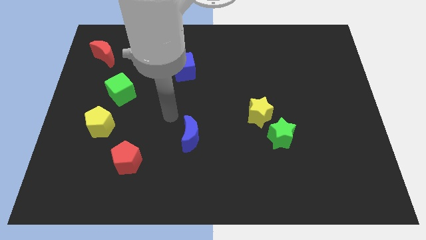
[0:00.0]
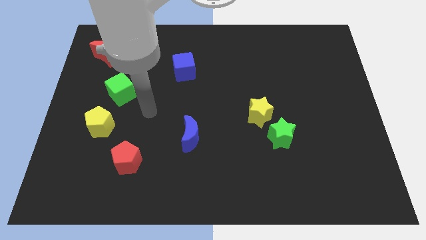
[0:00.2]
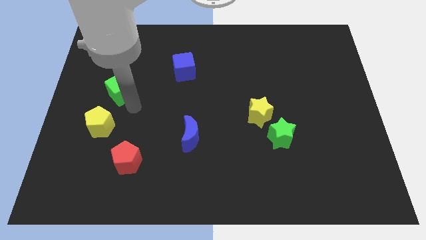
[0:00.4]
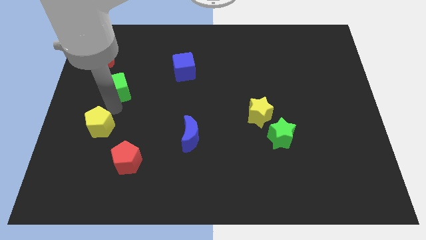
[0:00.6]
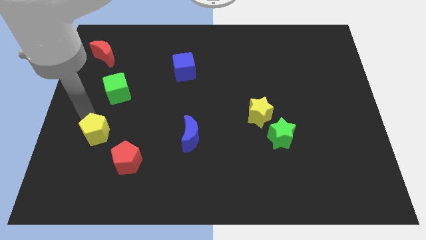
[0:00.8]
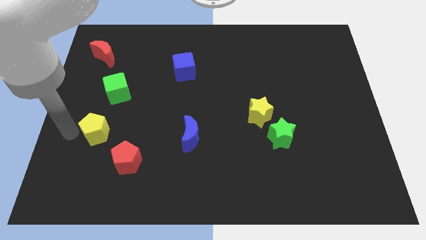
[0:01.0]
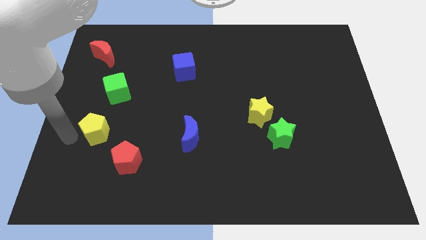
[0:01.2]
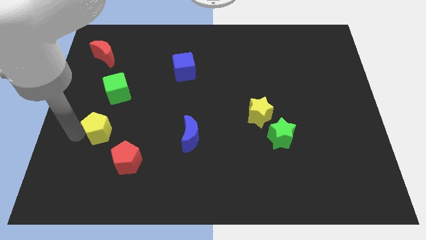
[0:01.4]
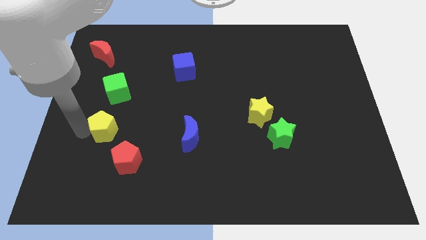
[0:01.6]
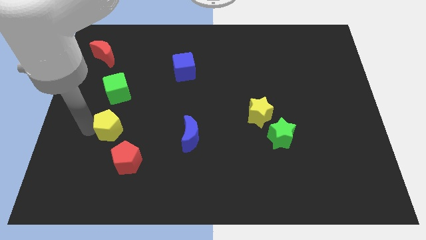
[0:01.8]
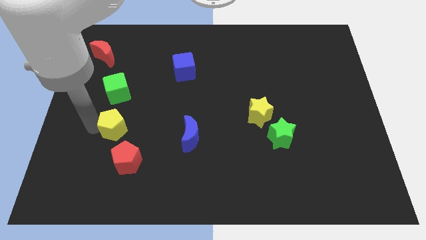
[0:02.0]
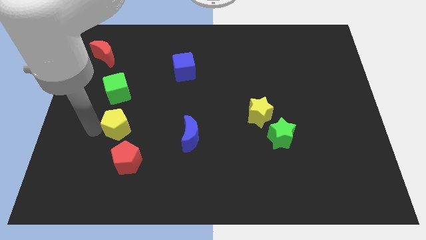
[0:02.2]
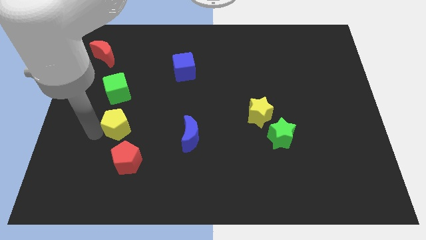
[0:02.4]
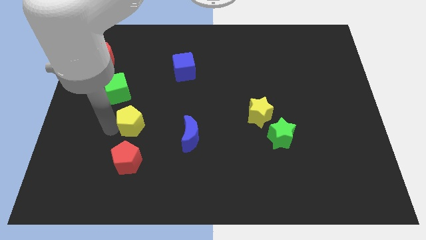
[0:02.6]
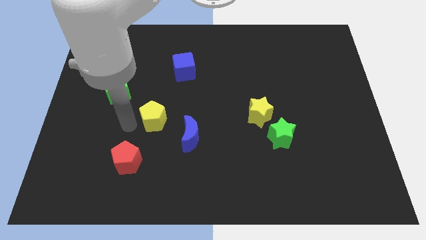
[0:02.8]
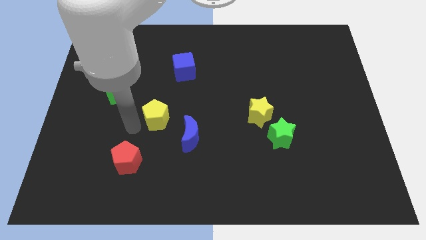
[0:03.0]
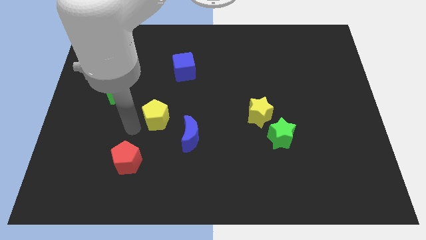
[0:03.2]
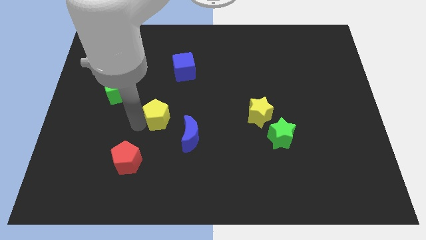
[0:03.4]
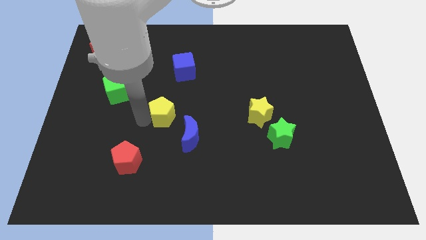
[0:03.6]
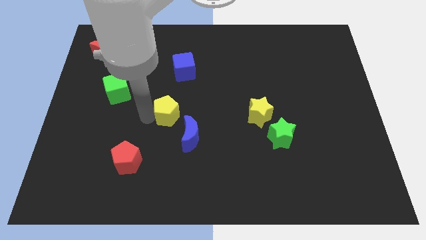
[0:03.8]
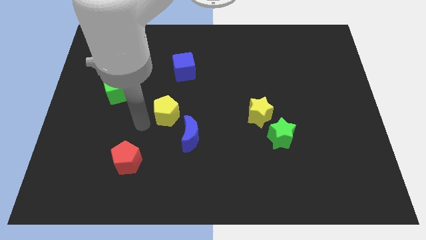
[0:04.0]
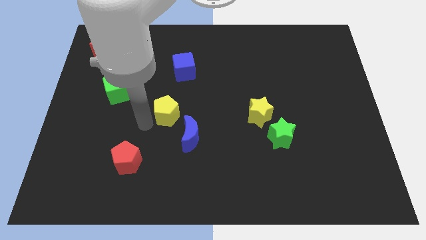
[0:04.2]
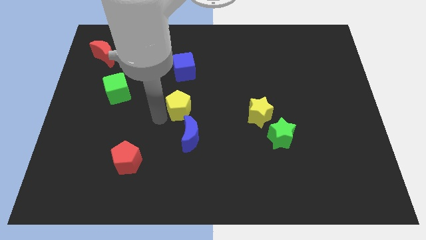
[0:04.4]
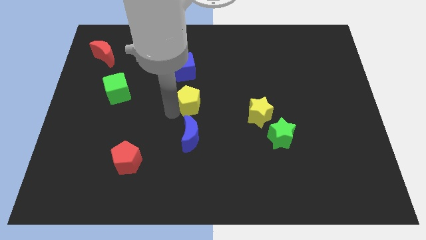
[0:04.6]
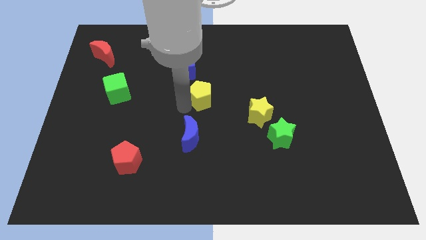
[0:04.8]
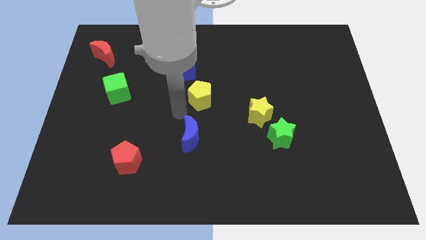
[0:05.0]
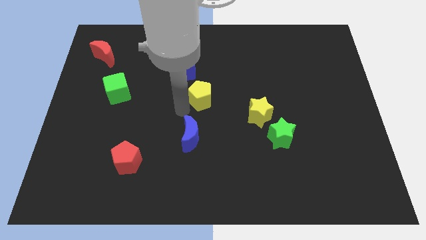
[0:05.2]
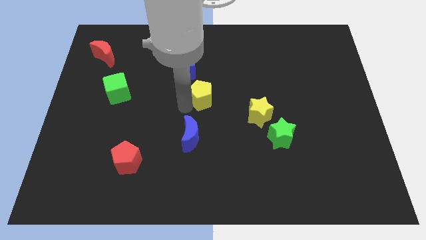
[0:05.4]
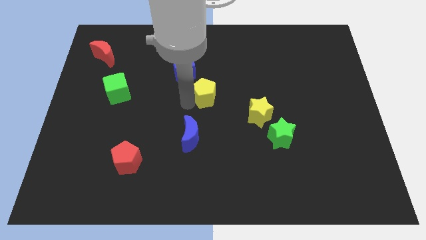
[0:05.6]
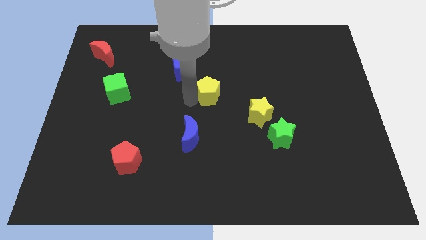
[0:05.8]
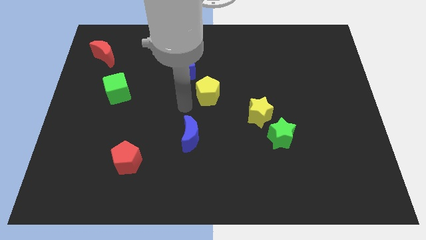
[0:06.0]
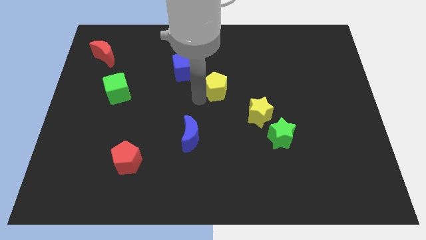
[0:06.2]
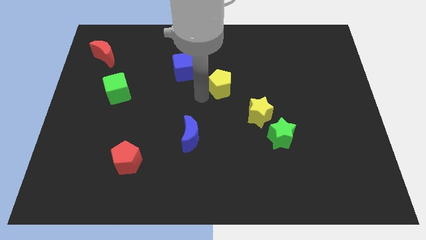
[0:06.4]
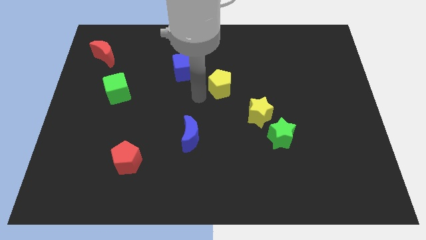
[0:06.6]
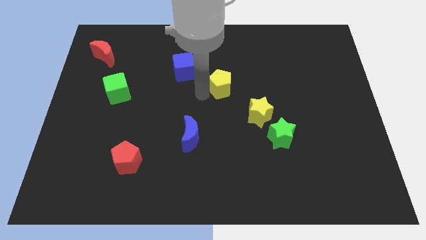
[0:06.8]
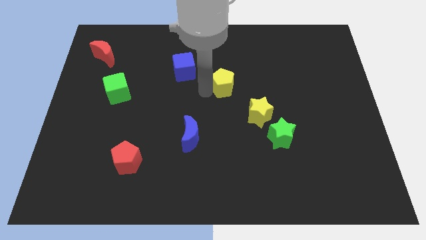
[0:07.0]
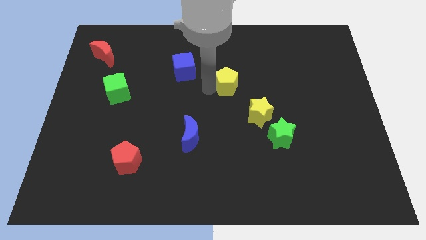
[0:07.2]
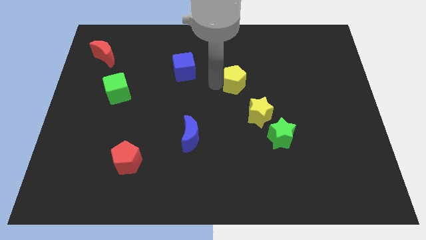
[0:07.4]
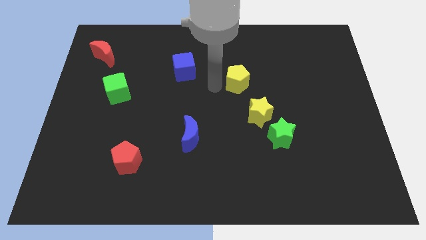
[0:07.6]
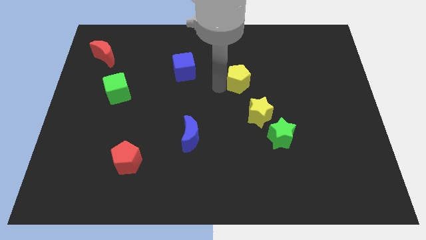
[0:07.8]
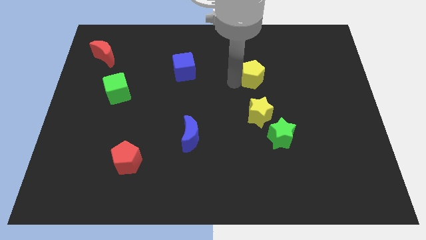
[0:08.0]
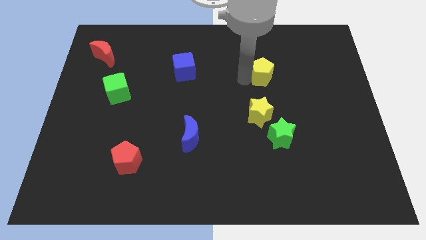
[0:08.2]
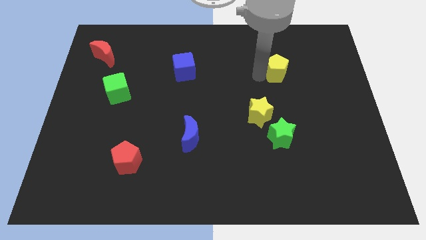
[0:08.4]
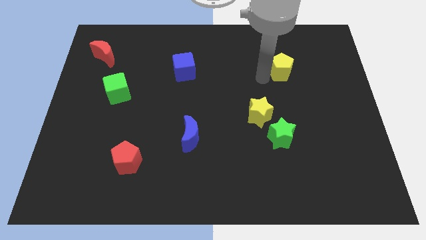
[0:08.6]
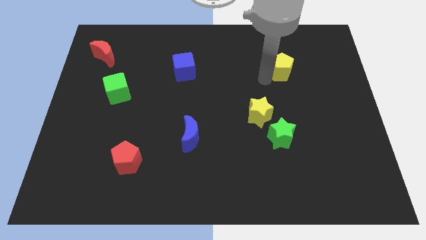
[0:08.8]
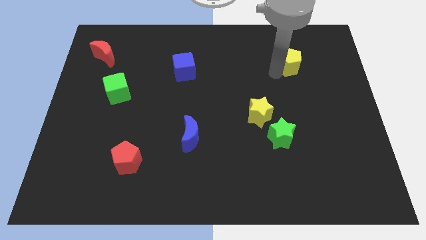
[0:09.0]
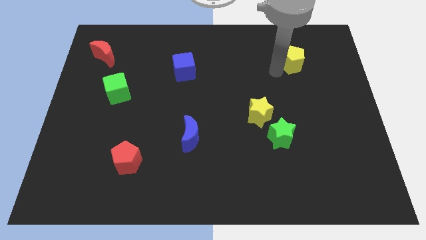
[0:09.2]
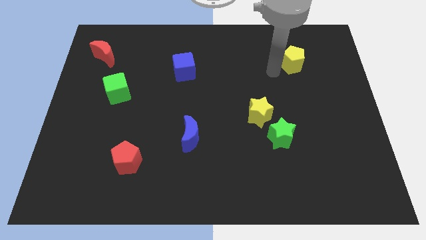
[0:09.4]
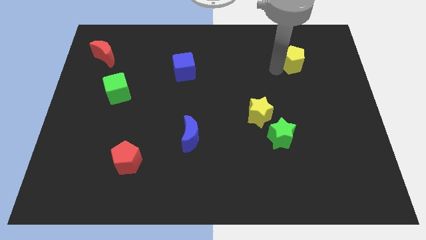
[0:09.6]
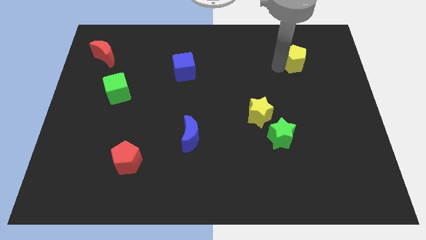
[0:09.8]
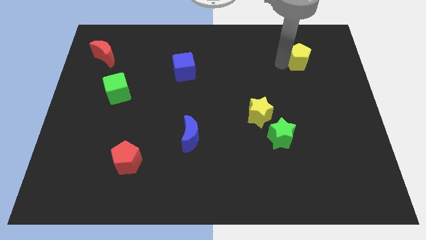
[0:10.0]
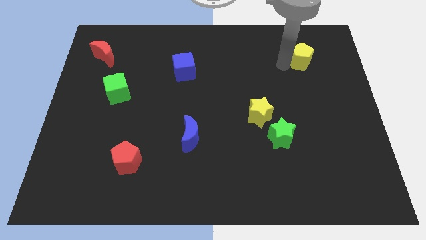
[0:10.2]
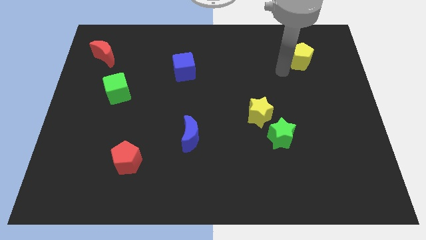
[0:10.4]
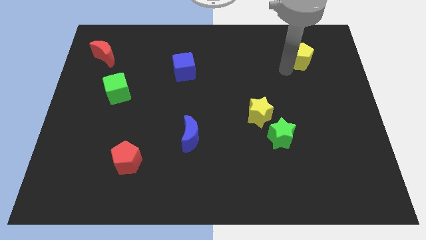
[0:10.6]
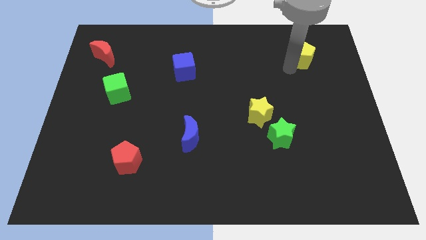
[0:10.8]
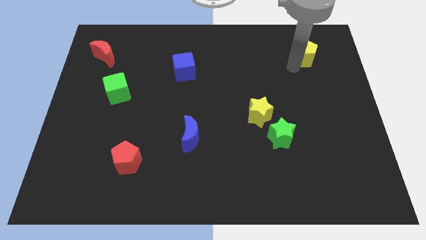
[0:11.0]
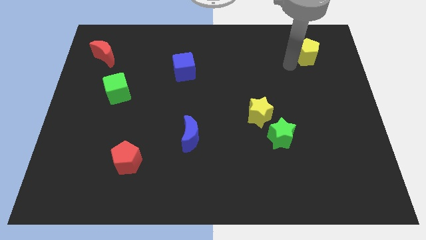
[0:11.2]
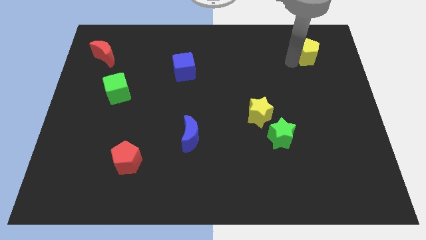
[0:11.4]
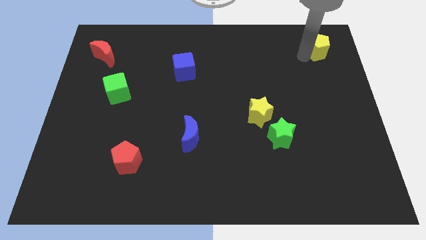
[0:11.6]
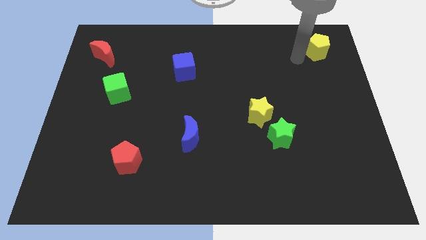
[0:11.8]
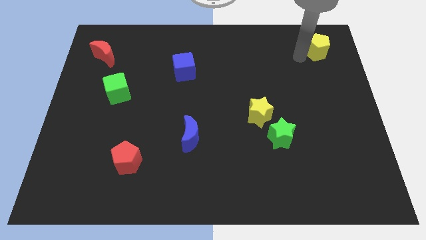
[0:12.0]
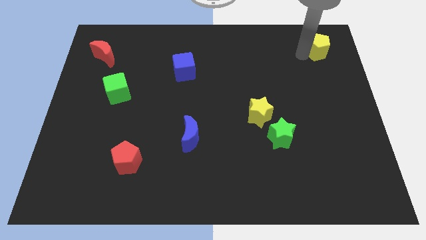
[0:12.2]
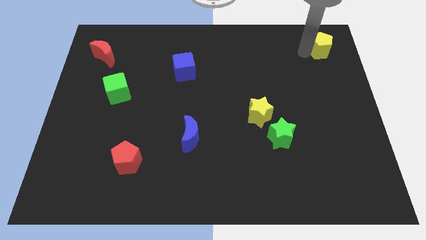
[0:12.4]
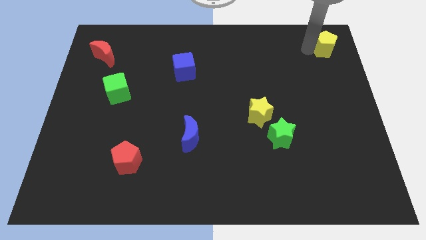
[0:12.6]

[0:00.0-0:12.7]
push the yellow pentagon to the upper right corner
